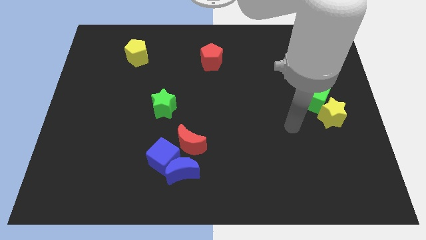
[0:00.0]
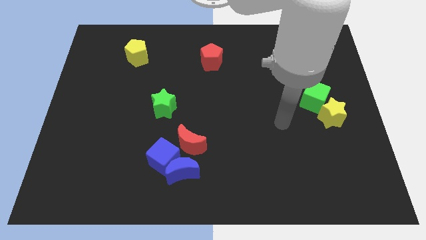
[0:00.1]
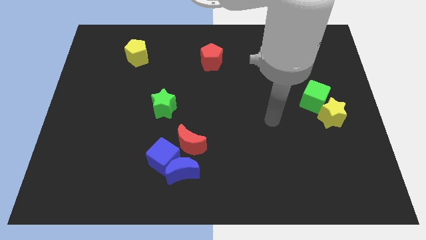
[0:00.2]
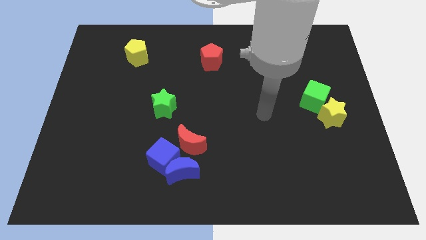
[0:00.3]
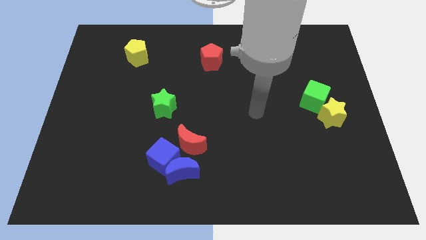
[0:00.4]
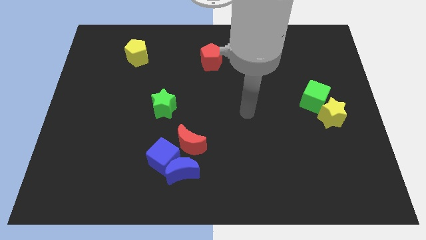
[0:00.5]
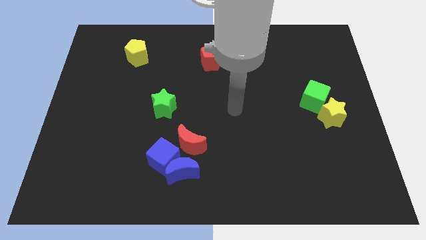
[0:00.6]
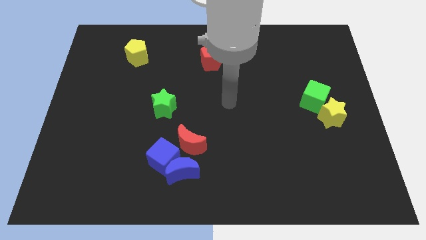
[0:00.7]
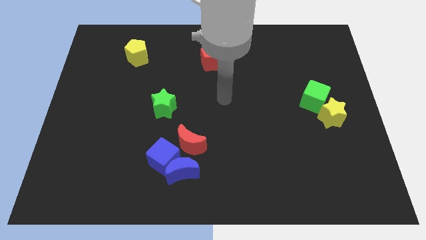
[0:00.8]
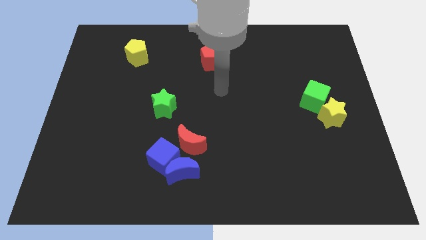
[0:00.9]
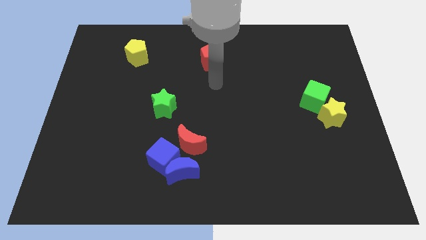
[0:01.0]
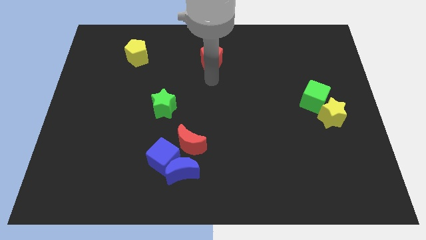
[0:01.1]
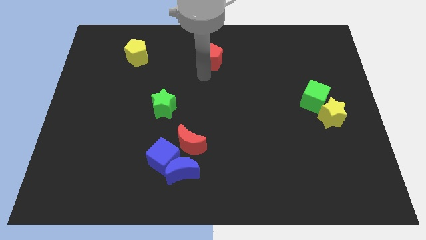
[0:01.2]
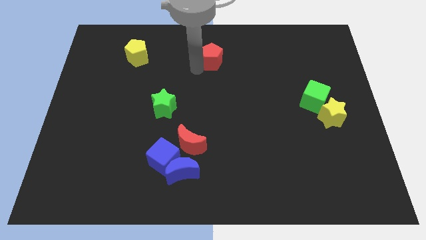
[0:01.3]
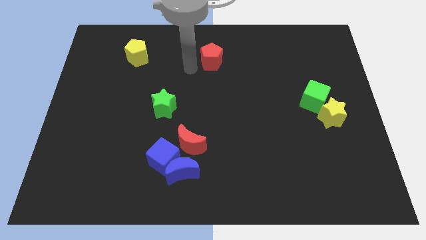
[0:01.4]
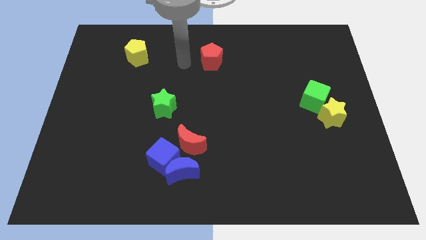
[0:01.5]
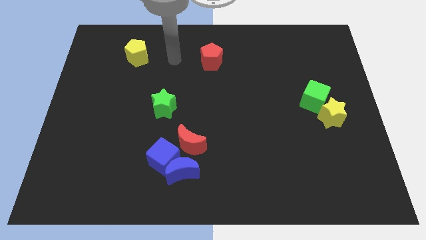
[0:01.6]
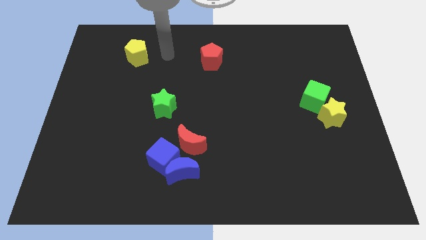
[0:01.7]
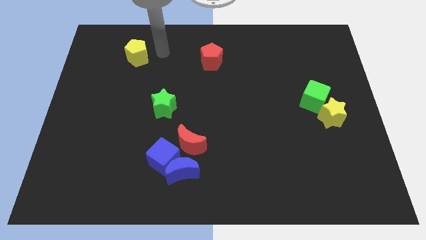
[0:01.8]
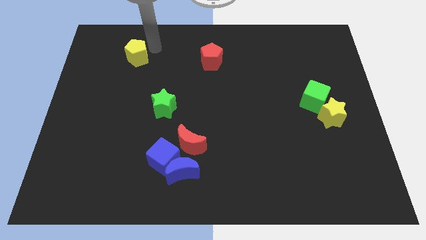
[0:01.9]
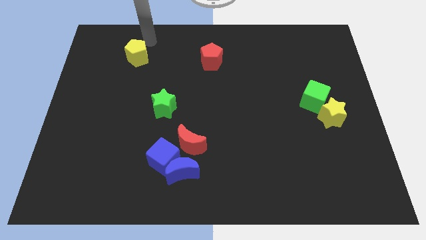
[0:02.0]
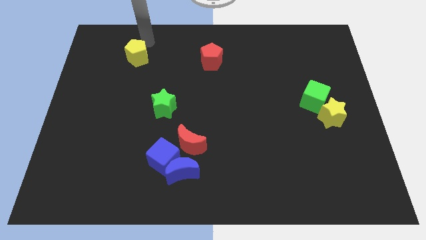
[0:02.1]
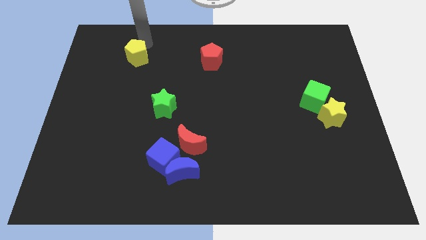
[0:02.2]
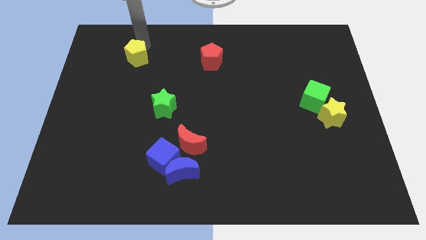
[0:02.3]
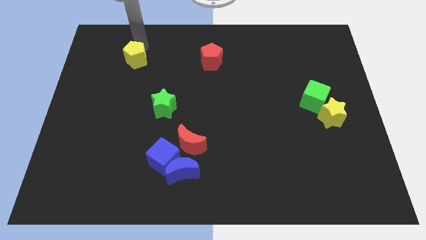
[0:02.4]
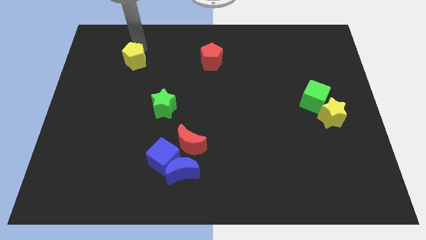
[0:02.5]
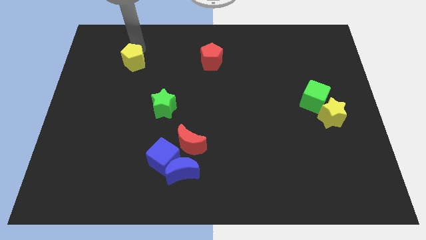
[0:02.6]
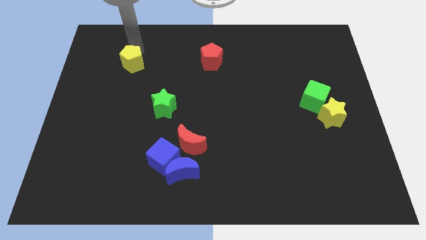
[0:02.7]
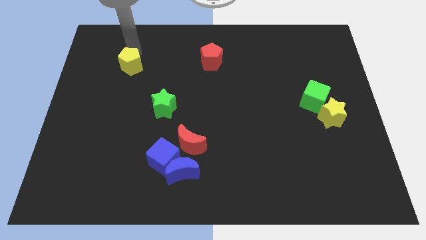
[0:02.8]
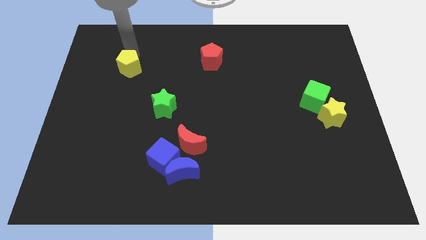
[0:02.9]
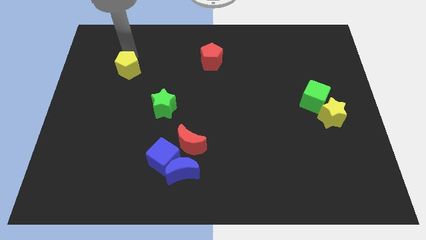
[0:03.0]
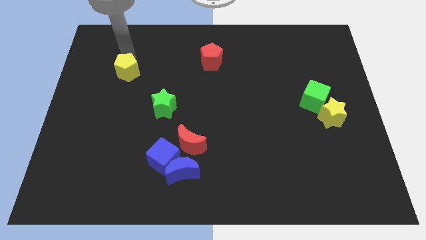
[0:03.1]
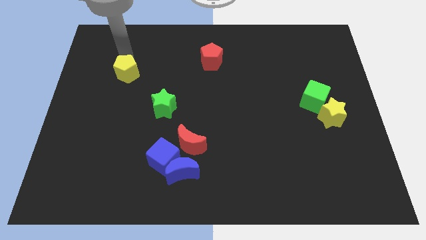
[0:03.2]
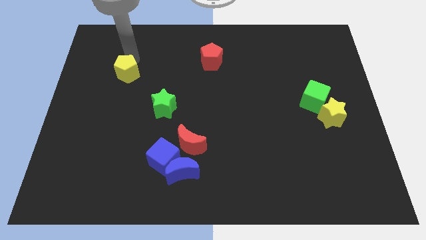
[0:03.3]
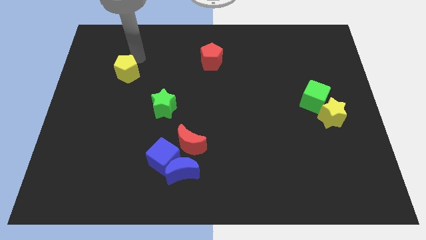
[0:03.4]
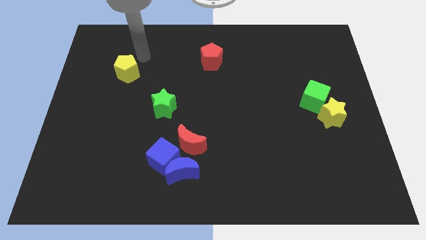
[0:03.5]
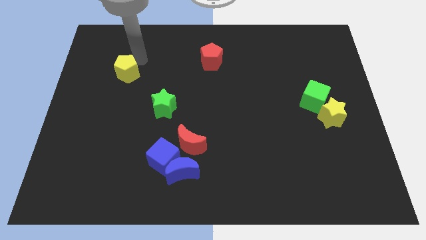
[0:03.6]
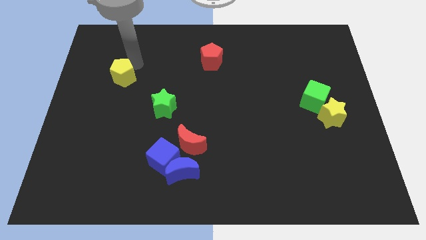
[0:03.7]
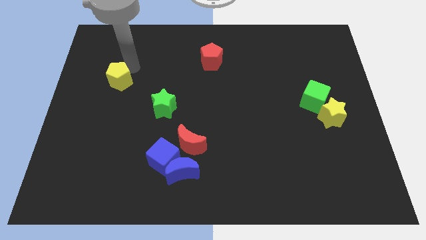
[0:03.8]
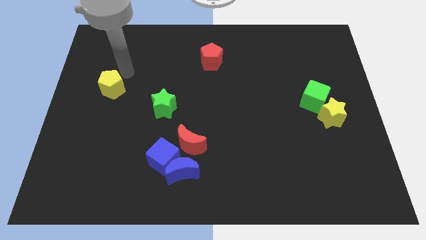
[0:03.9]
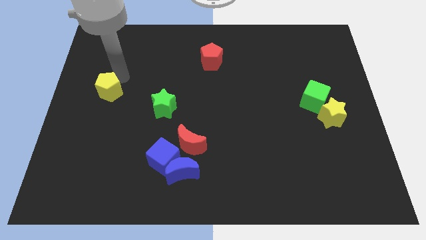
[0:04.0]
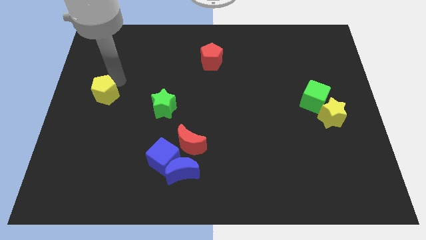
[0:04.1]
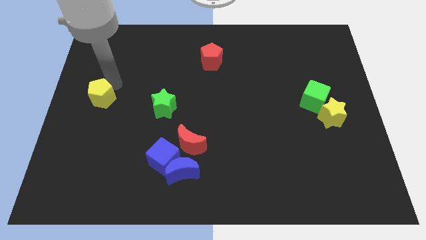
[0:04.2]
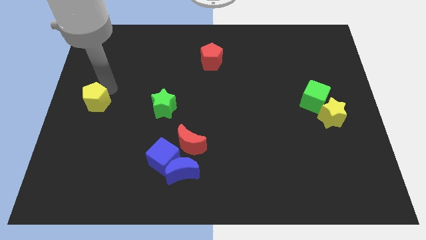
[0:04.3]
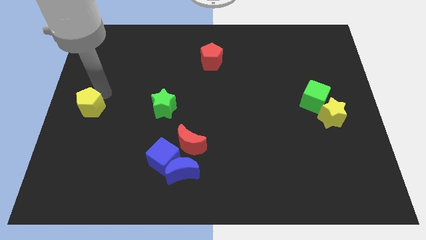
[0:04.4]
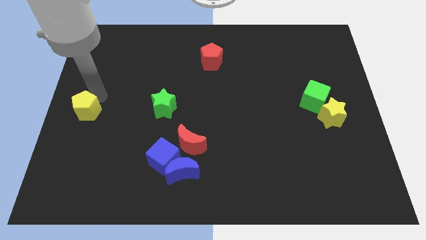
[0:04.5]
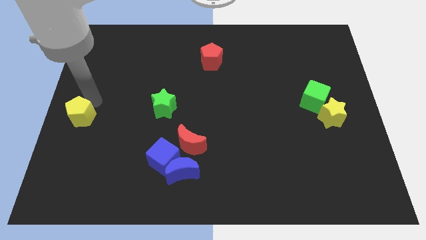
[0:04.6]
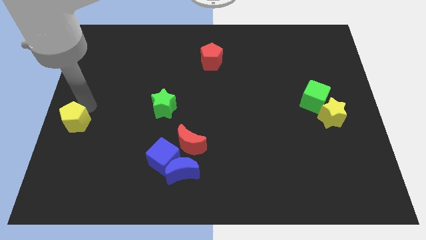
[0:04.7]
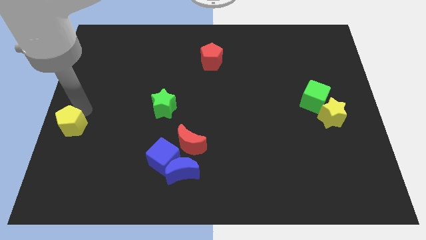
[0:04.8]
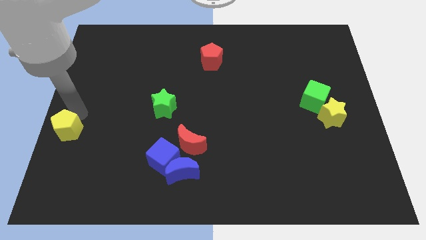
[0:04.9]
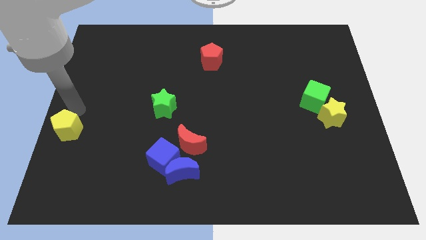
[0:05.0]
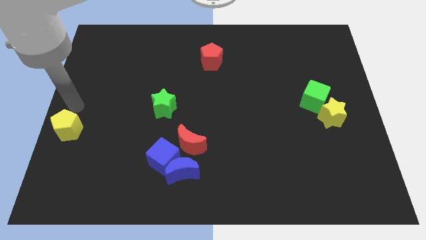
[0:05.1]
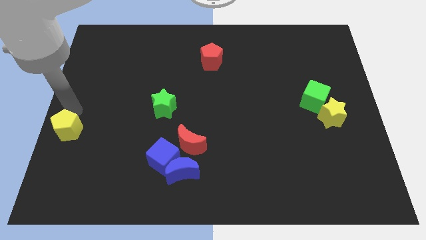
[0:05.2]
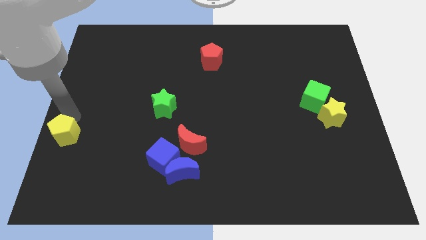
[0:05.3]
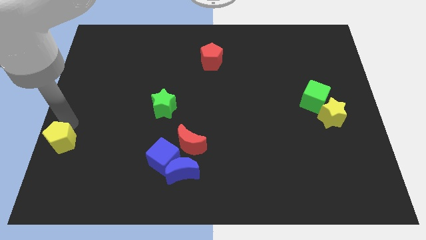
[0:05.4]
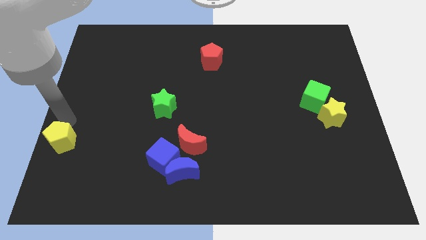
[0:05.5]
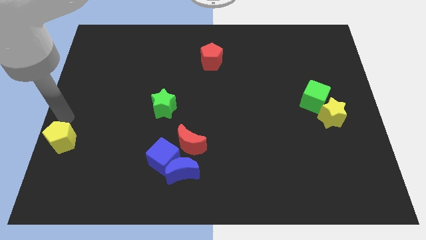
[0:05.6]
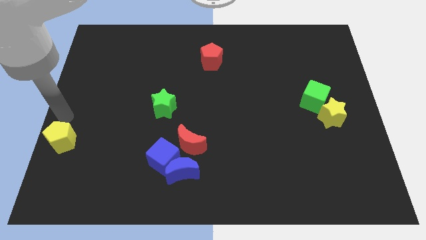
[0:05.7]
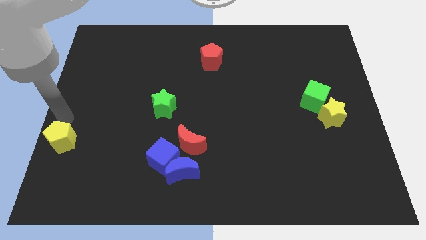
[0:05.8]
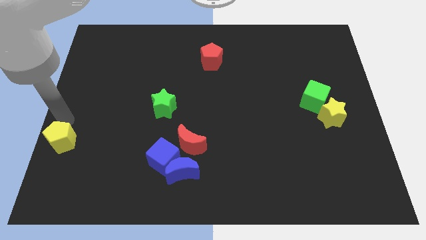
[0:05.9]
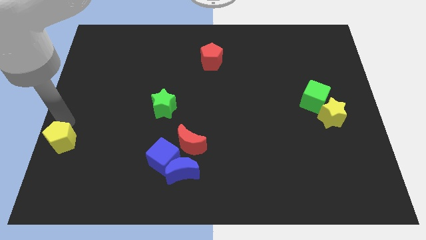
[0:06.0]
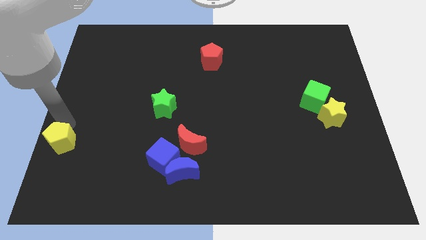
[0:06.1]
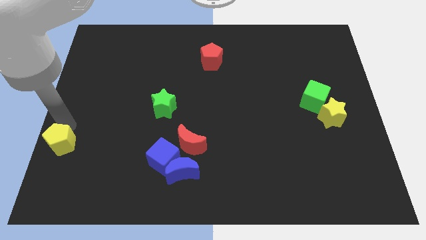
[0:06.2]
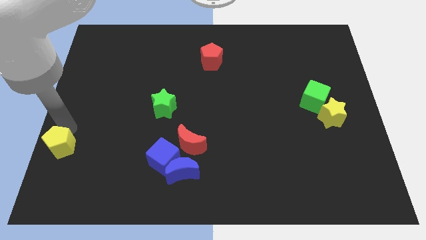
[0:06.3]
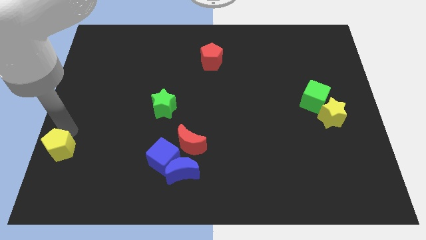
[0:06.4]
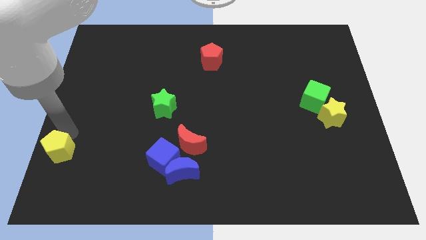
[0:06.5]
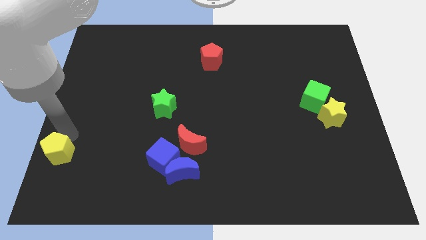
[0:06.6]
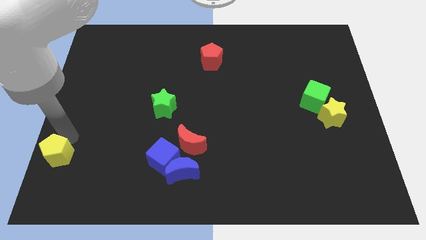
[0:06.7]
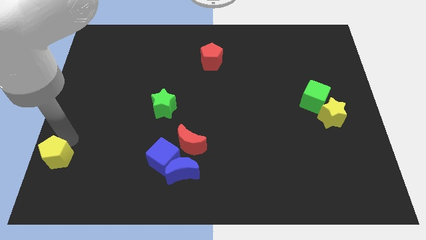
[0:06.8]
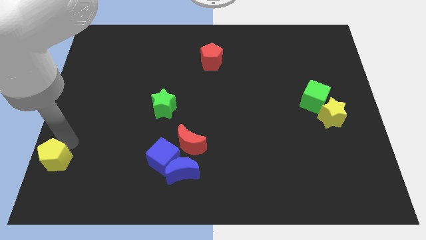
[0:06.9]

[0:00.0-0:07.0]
slide the yellow pentagon to the lower left corner

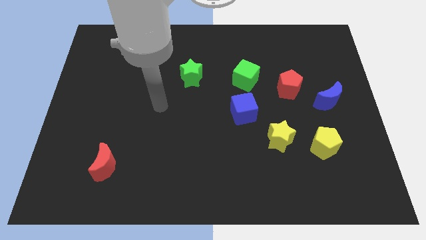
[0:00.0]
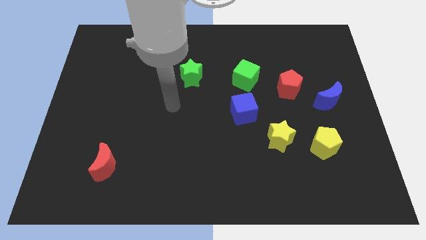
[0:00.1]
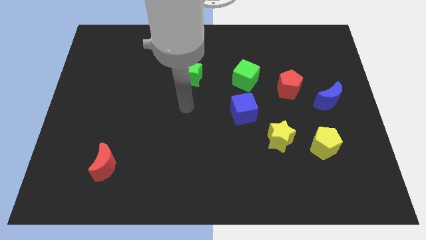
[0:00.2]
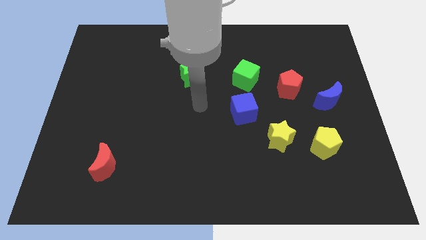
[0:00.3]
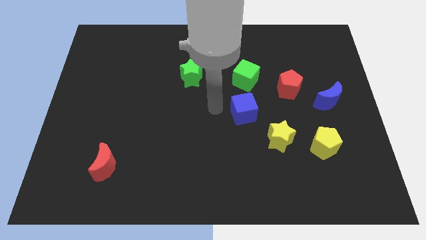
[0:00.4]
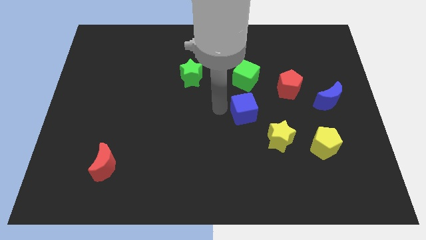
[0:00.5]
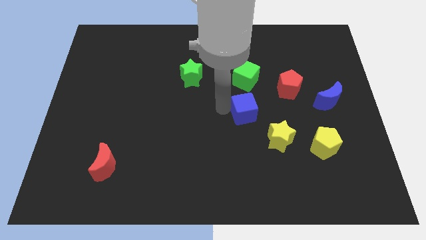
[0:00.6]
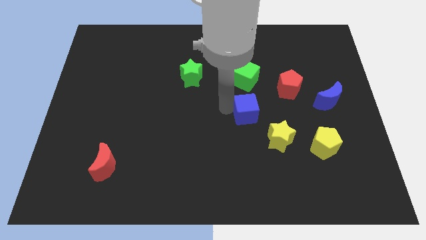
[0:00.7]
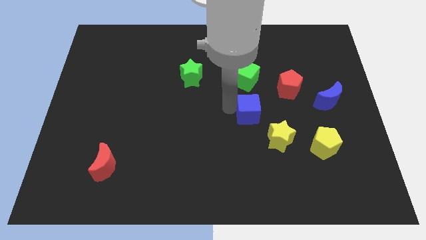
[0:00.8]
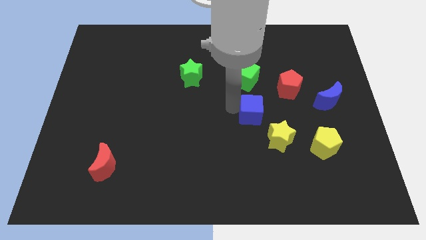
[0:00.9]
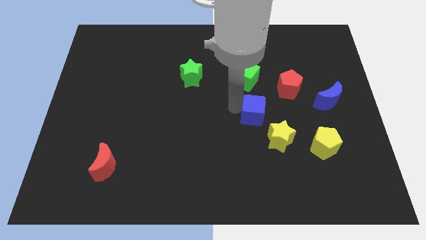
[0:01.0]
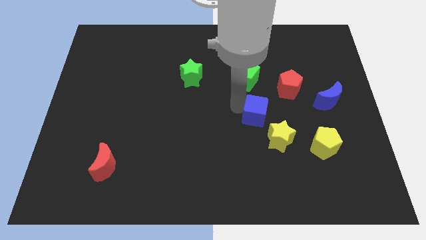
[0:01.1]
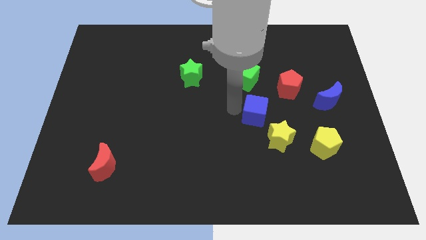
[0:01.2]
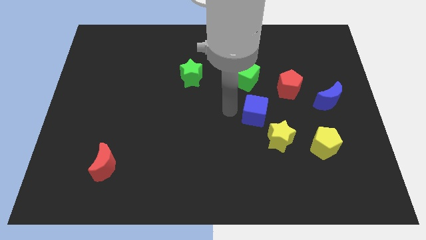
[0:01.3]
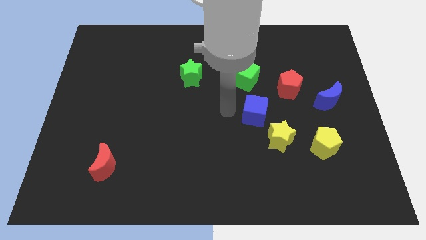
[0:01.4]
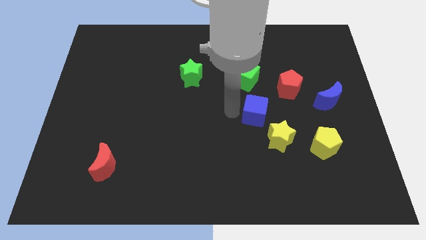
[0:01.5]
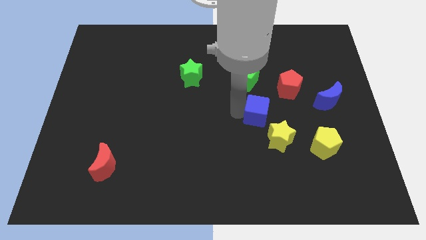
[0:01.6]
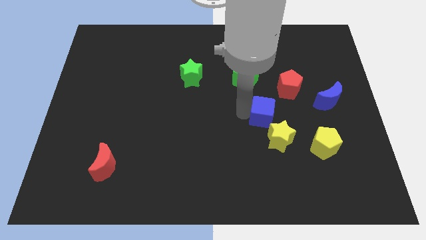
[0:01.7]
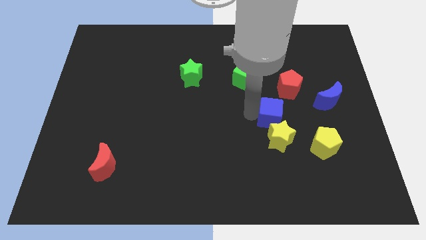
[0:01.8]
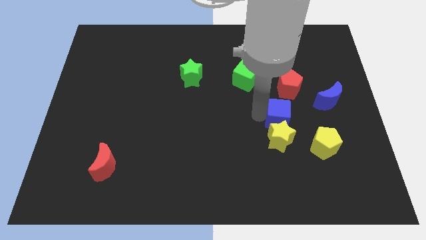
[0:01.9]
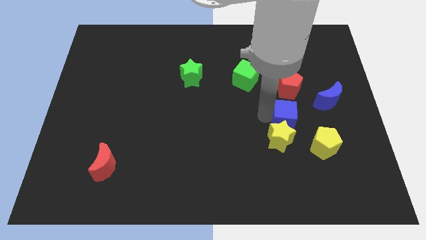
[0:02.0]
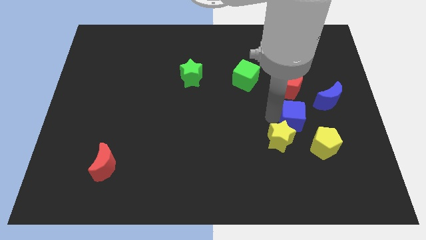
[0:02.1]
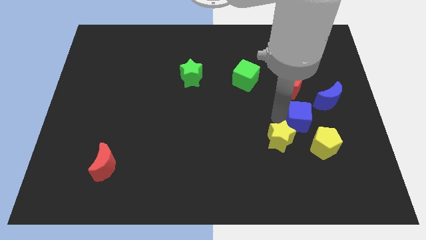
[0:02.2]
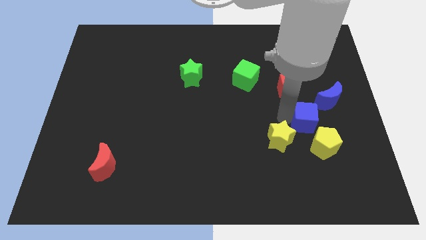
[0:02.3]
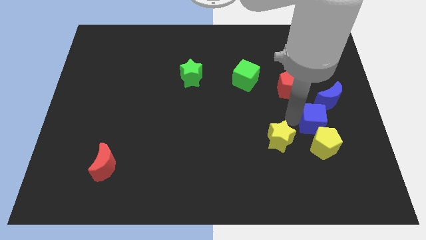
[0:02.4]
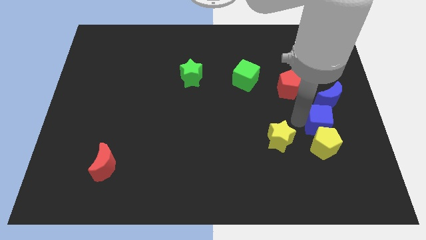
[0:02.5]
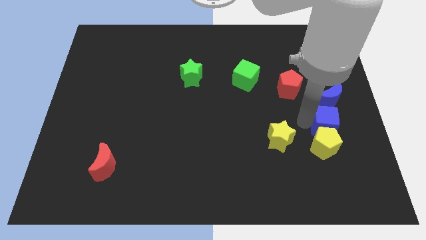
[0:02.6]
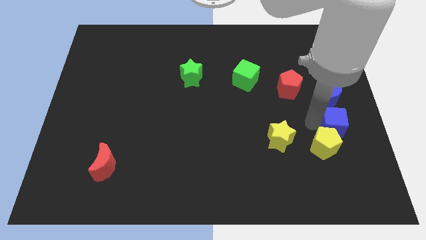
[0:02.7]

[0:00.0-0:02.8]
move the blue cube to the right side
